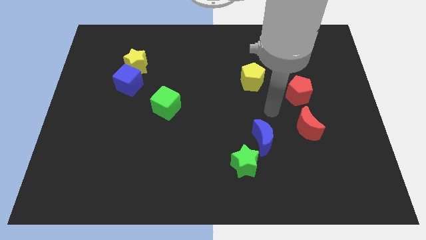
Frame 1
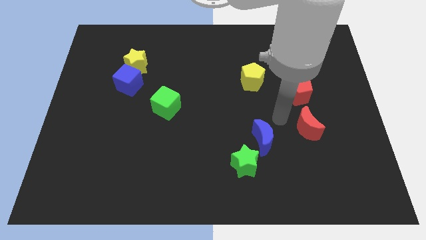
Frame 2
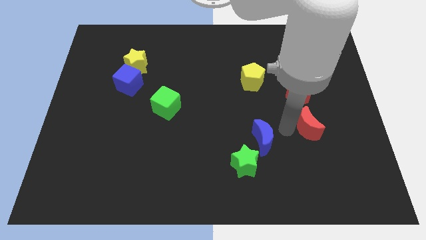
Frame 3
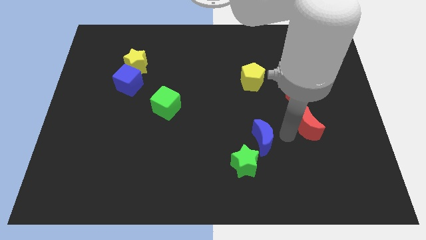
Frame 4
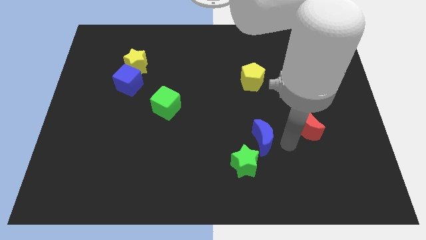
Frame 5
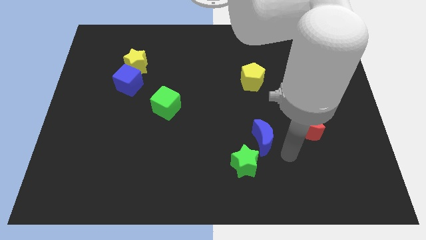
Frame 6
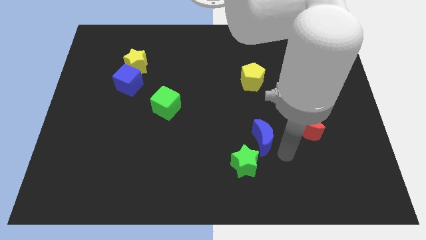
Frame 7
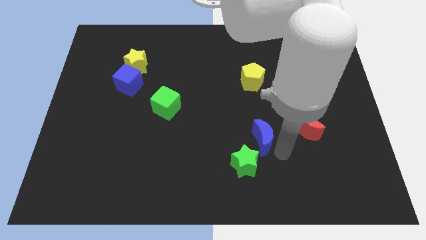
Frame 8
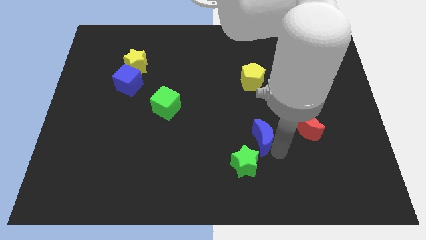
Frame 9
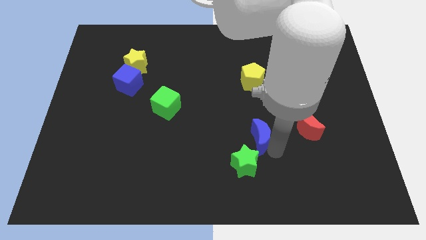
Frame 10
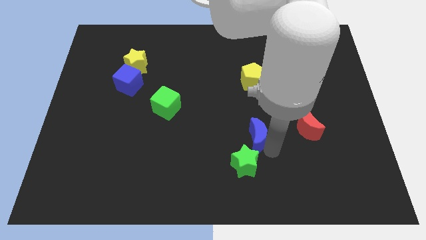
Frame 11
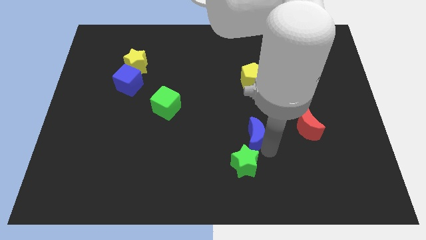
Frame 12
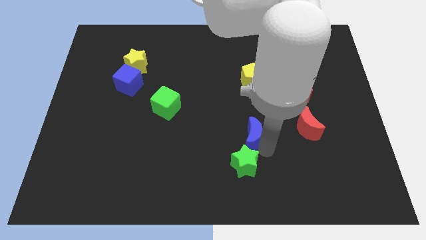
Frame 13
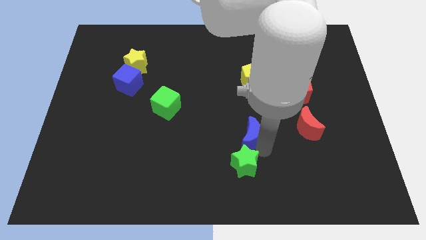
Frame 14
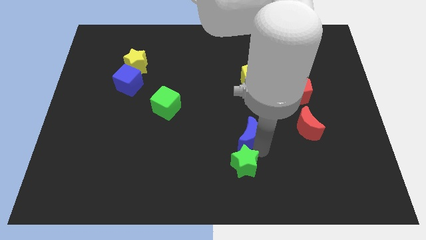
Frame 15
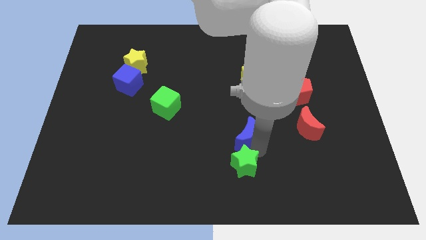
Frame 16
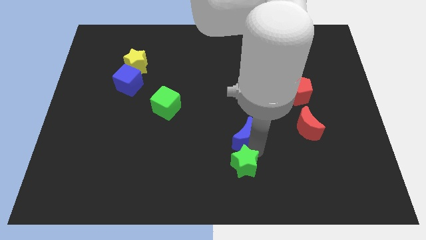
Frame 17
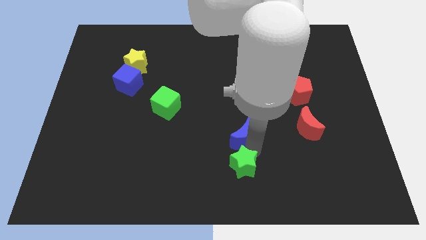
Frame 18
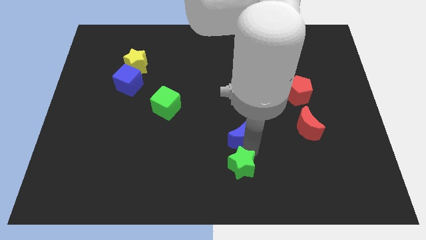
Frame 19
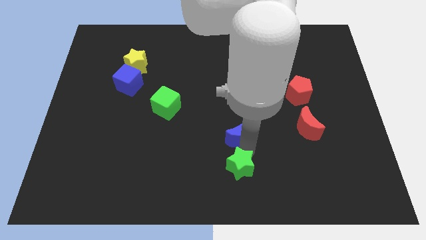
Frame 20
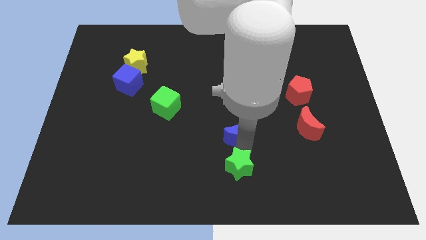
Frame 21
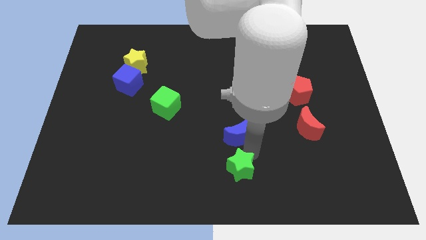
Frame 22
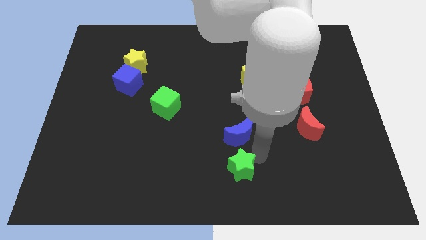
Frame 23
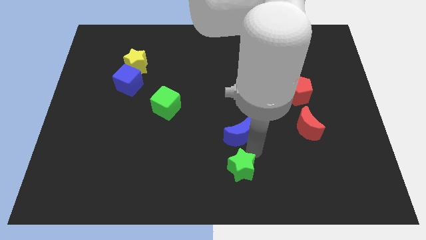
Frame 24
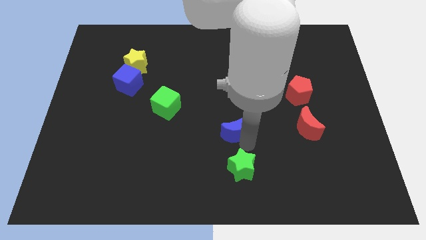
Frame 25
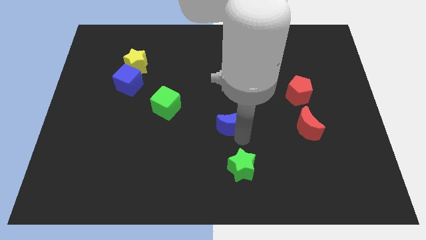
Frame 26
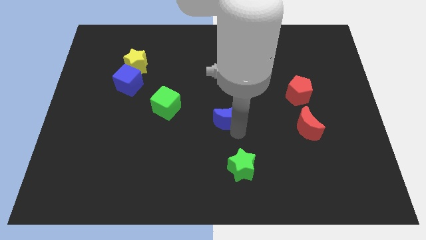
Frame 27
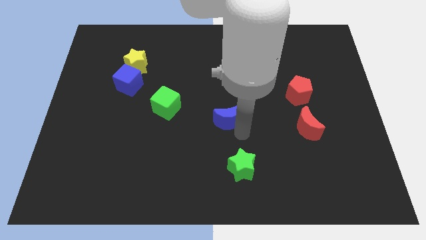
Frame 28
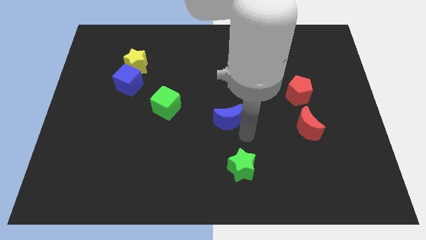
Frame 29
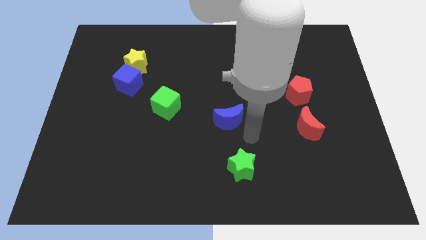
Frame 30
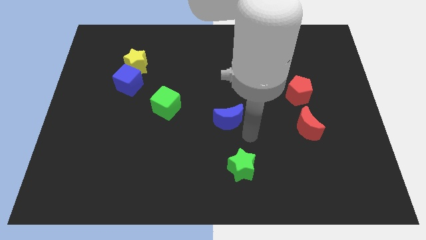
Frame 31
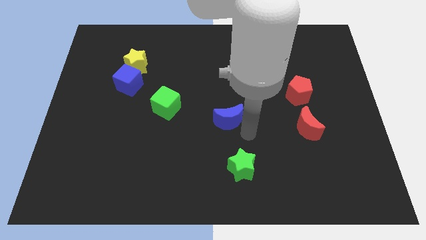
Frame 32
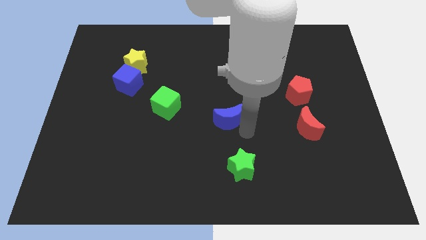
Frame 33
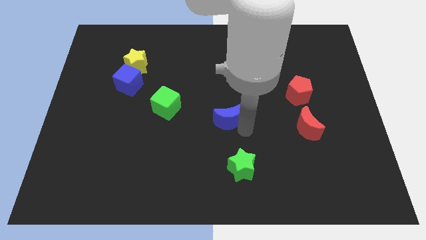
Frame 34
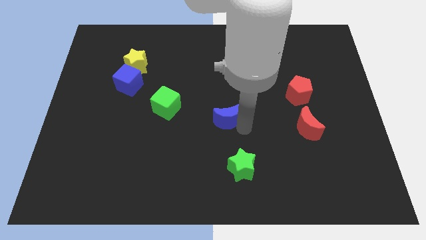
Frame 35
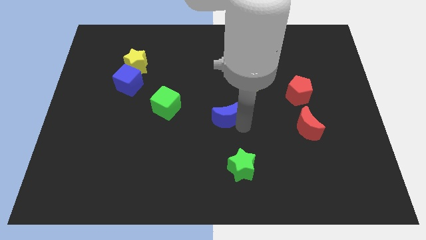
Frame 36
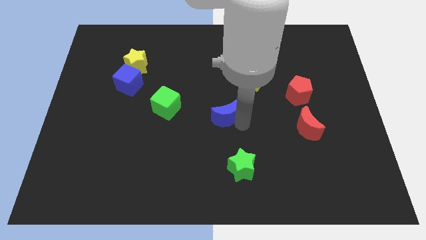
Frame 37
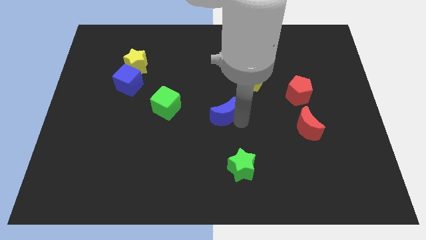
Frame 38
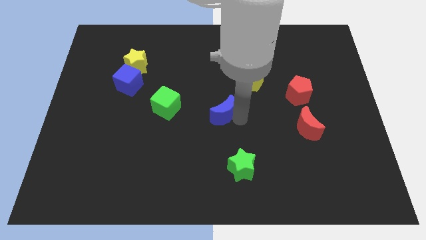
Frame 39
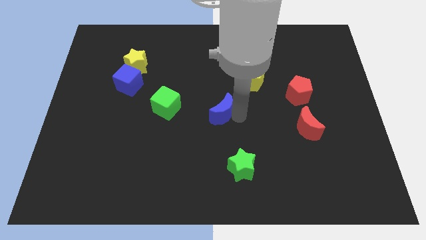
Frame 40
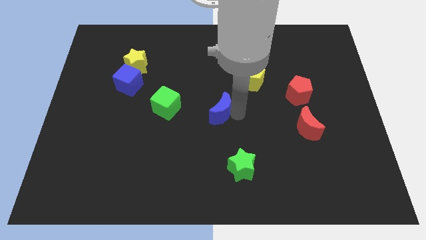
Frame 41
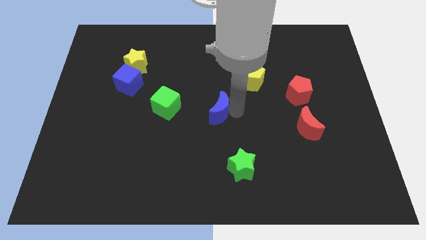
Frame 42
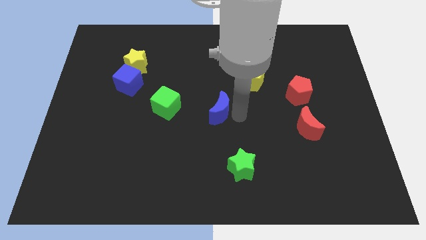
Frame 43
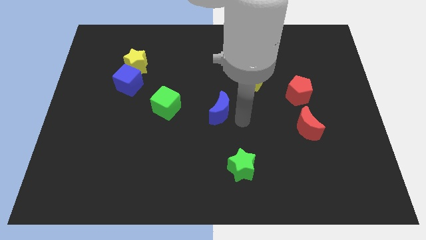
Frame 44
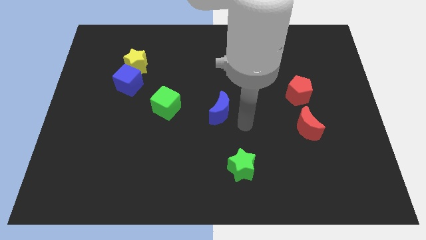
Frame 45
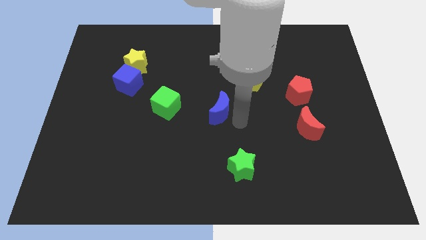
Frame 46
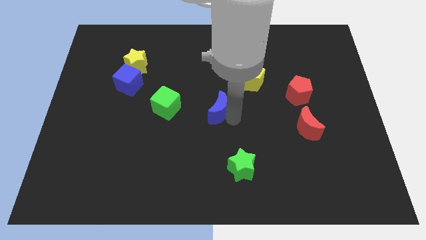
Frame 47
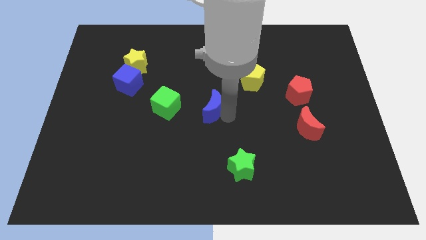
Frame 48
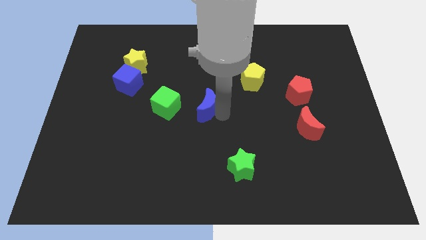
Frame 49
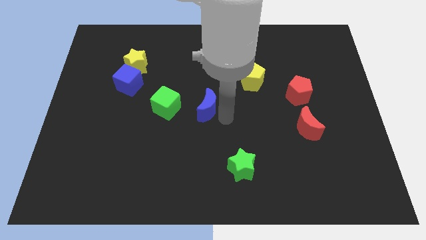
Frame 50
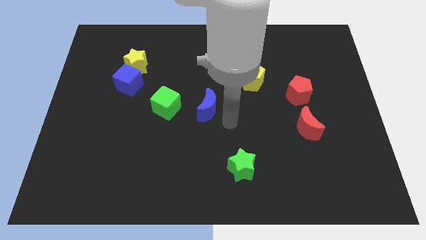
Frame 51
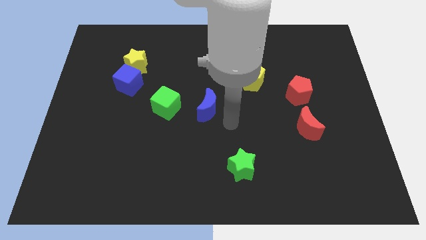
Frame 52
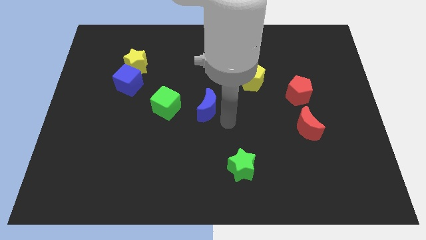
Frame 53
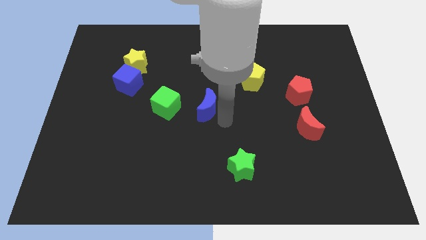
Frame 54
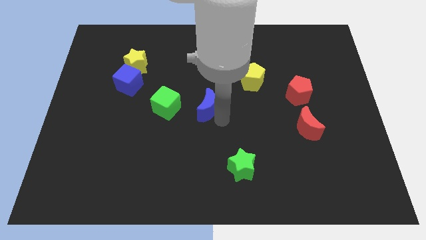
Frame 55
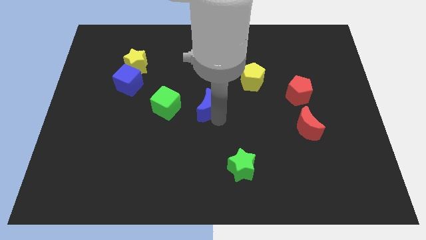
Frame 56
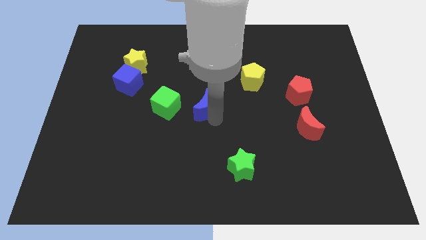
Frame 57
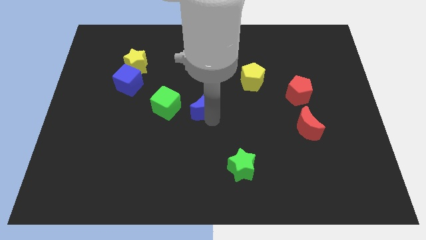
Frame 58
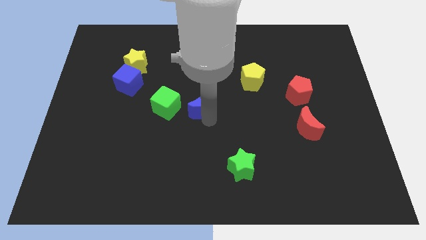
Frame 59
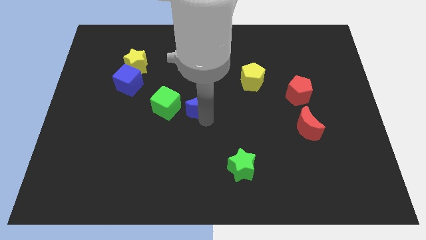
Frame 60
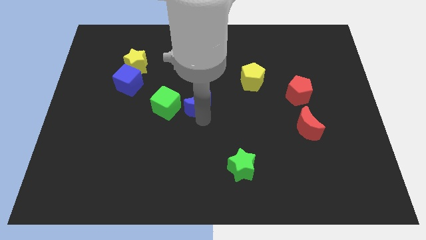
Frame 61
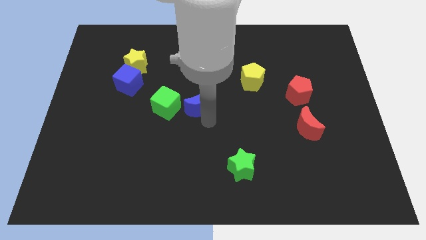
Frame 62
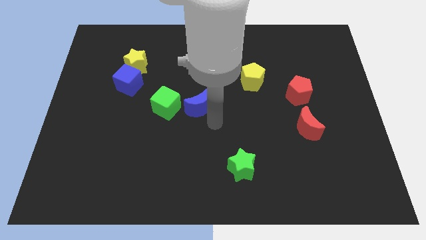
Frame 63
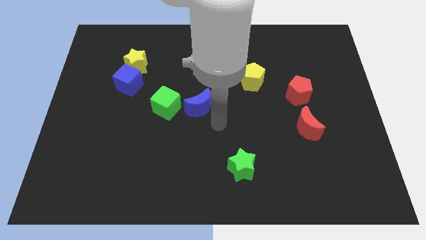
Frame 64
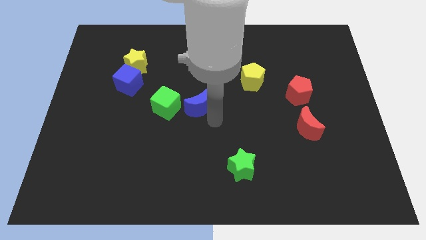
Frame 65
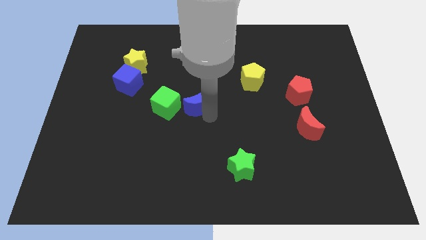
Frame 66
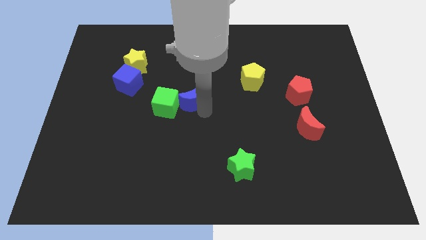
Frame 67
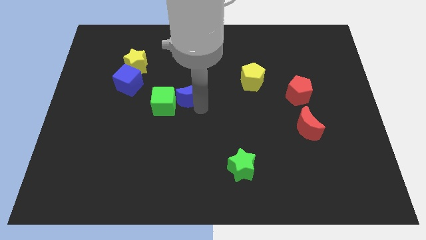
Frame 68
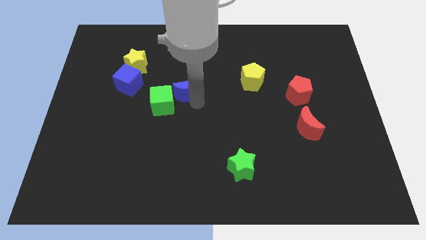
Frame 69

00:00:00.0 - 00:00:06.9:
push the blue moon just right of the blue cube
